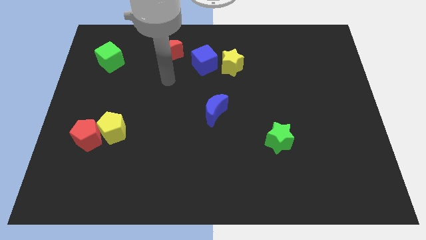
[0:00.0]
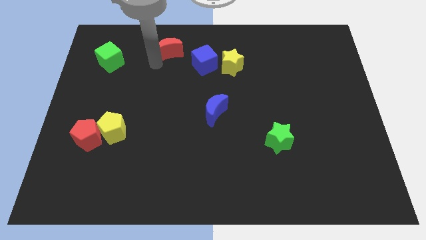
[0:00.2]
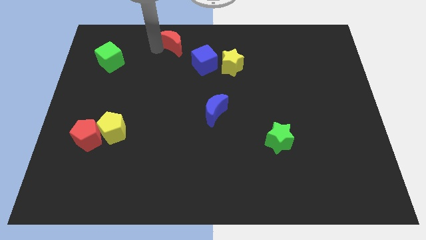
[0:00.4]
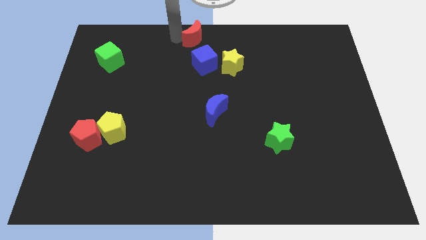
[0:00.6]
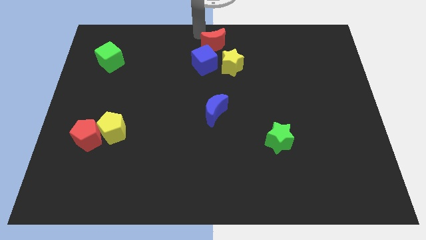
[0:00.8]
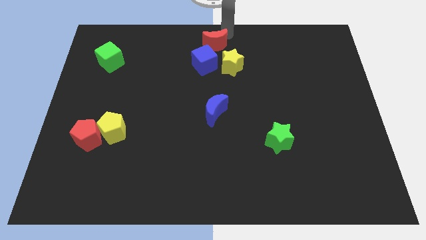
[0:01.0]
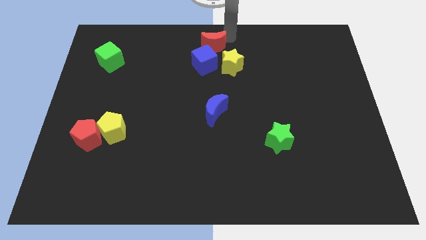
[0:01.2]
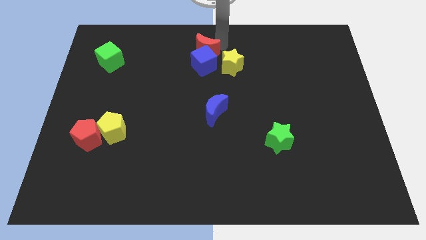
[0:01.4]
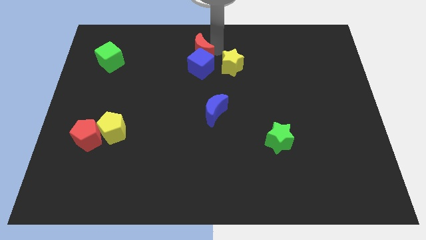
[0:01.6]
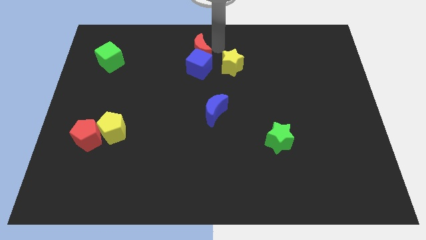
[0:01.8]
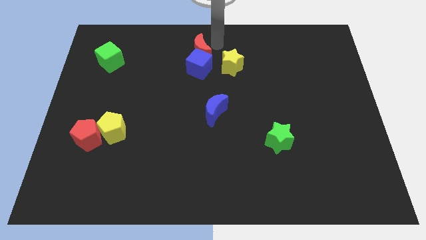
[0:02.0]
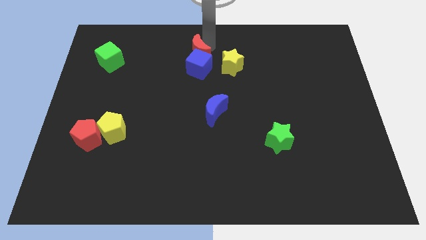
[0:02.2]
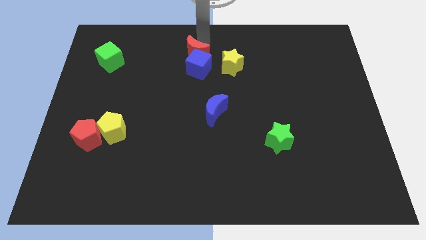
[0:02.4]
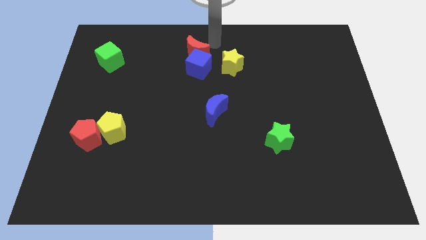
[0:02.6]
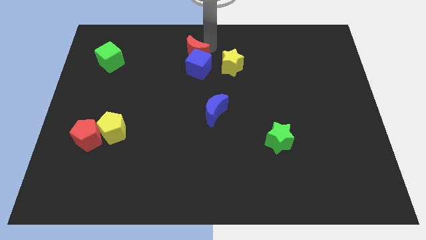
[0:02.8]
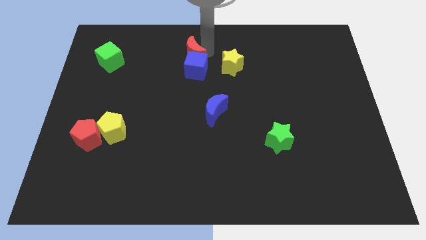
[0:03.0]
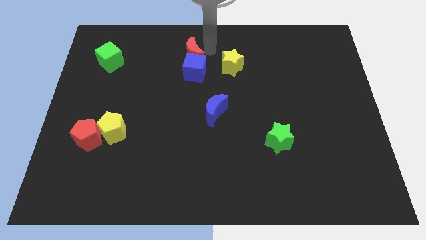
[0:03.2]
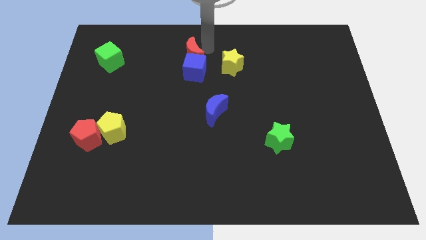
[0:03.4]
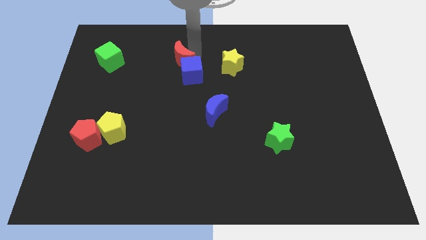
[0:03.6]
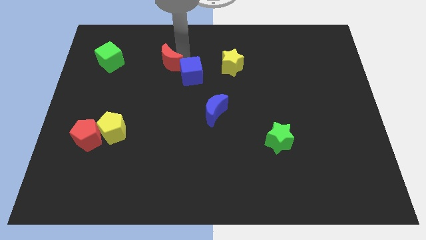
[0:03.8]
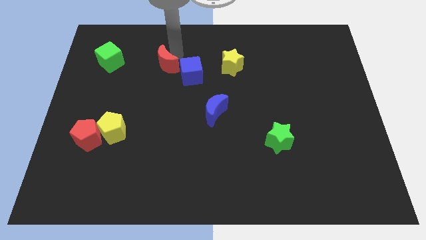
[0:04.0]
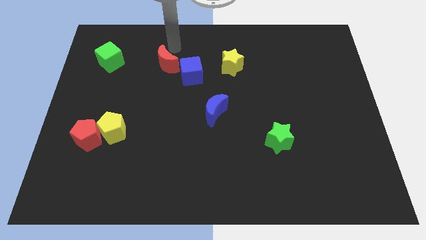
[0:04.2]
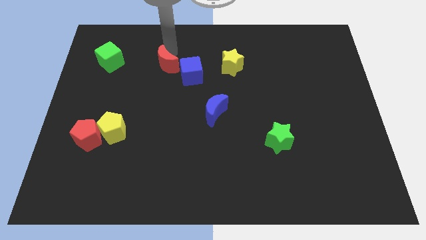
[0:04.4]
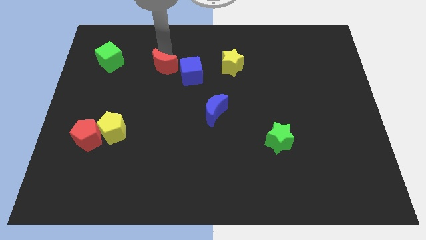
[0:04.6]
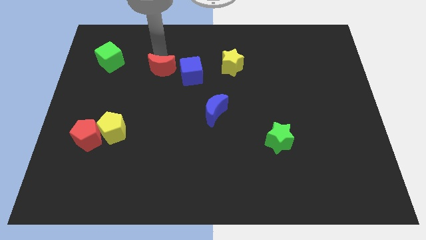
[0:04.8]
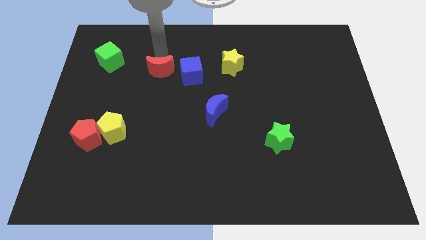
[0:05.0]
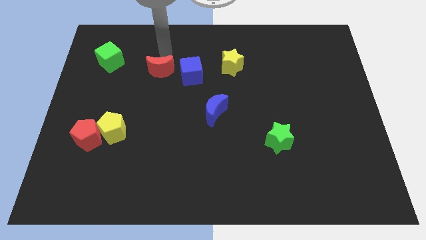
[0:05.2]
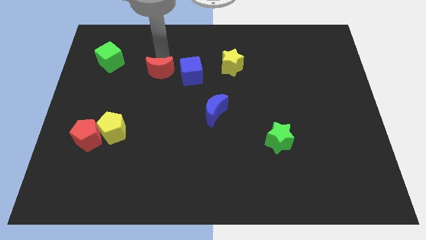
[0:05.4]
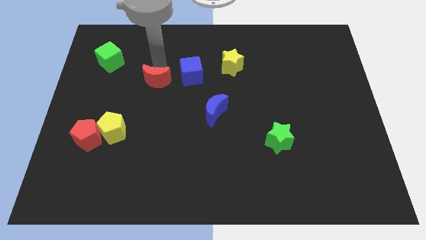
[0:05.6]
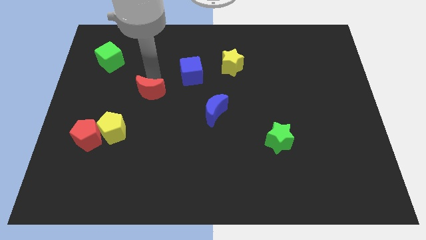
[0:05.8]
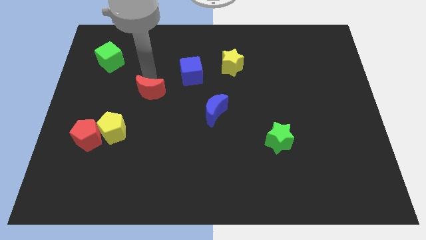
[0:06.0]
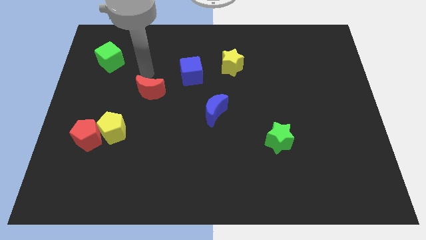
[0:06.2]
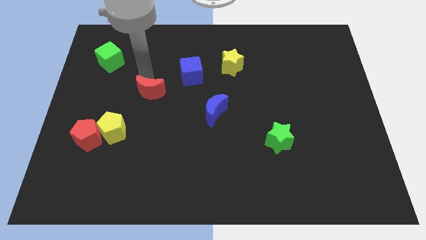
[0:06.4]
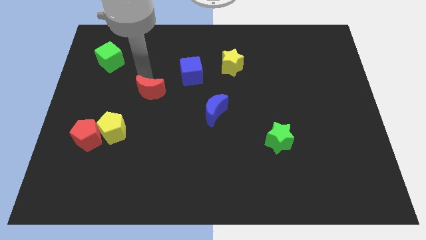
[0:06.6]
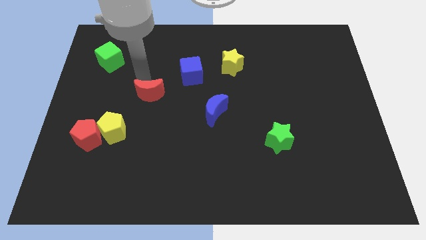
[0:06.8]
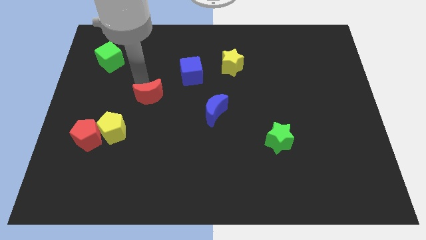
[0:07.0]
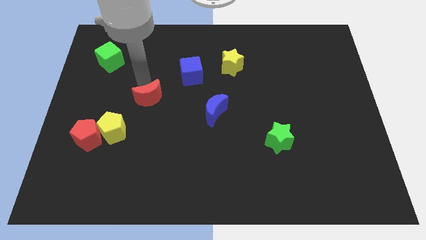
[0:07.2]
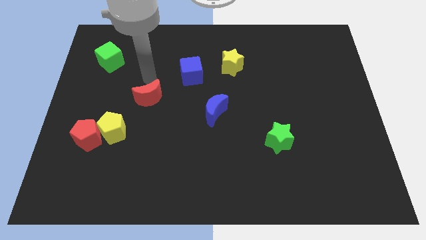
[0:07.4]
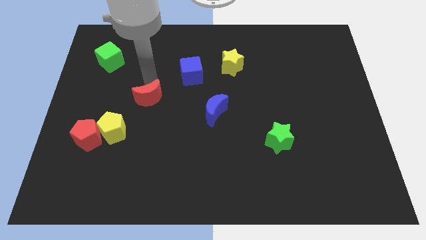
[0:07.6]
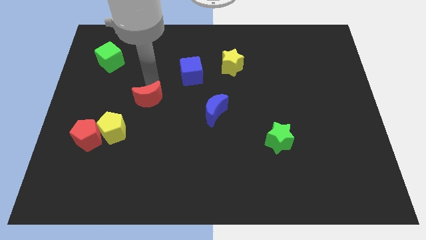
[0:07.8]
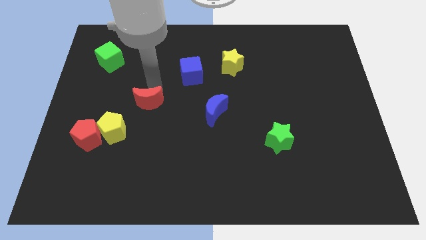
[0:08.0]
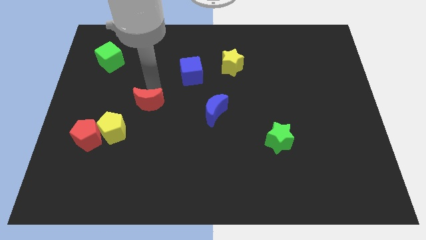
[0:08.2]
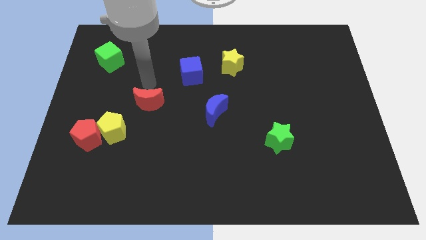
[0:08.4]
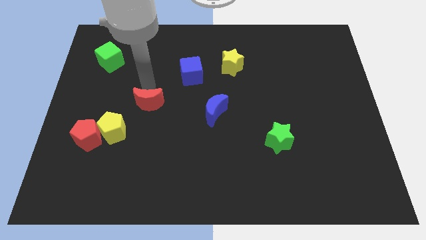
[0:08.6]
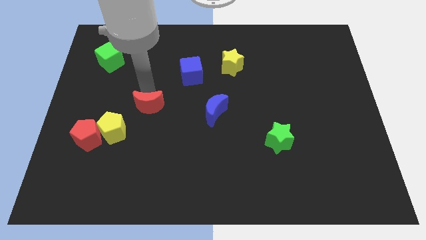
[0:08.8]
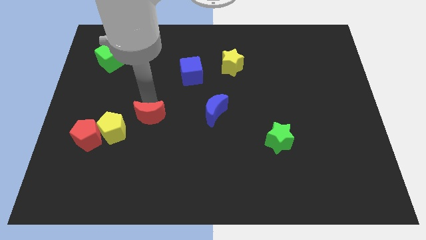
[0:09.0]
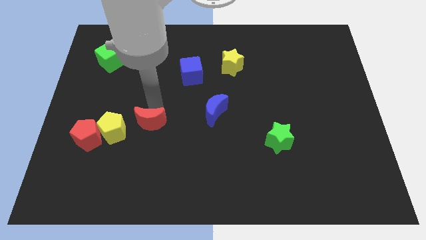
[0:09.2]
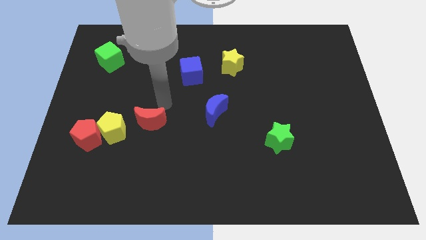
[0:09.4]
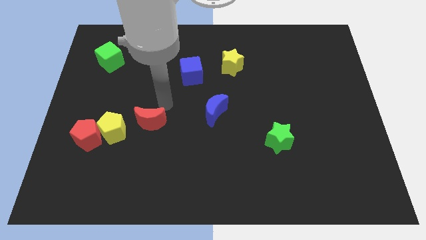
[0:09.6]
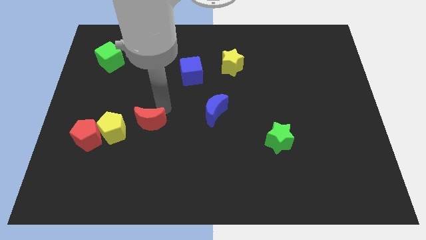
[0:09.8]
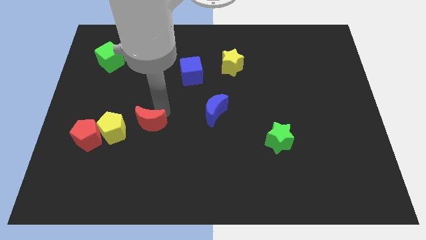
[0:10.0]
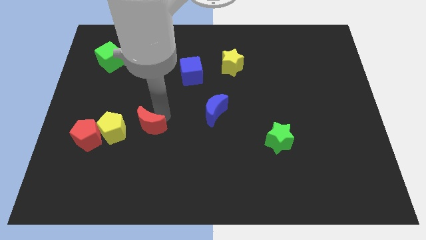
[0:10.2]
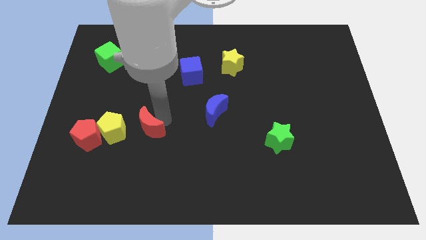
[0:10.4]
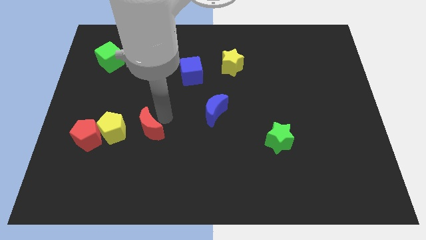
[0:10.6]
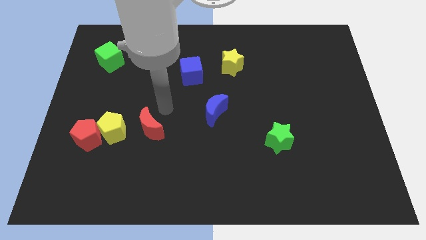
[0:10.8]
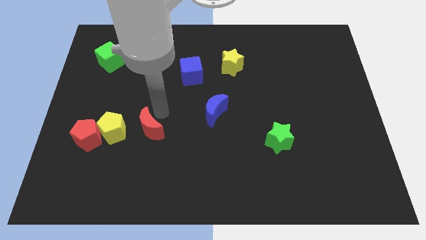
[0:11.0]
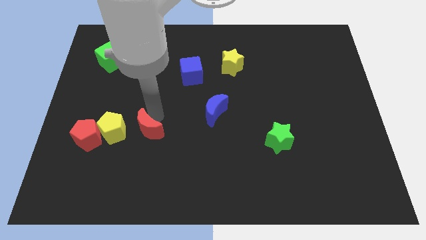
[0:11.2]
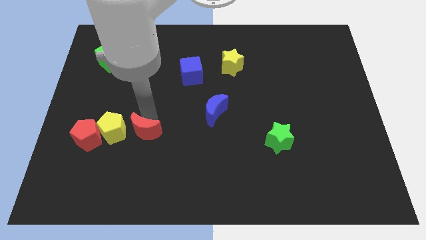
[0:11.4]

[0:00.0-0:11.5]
put the red moon to the bottom right side of the yellow pentagon

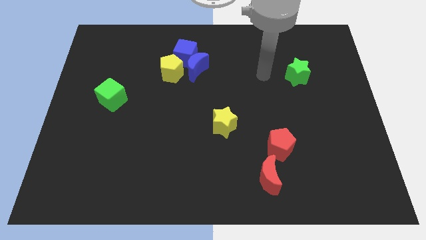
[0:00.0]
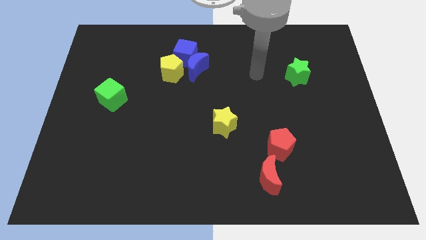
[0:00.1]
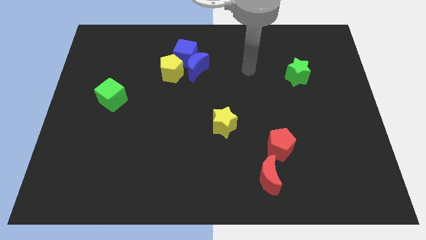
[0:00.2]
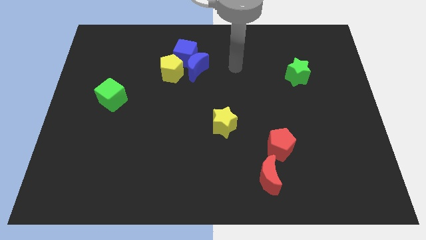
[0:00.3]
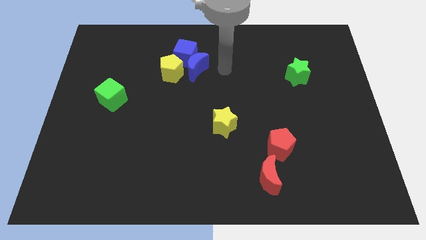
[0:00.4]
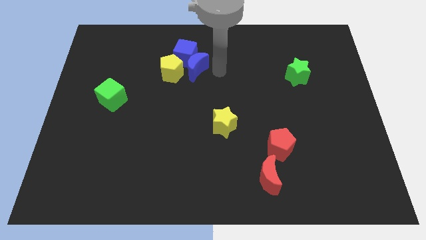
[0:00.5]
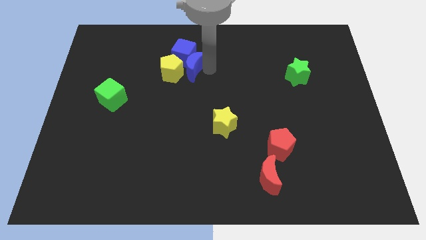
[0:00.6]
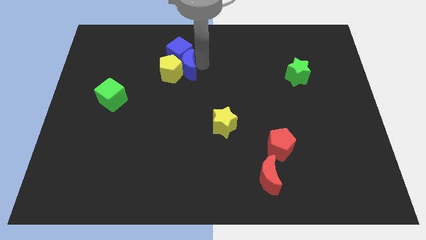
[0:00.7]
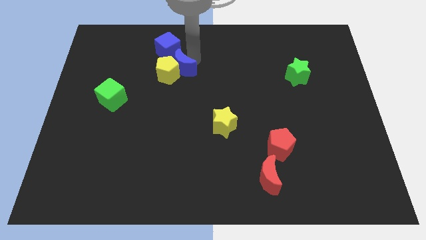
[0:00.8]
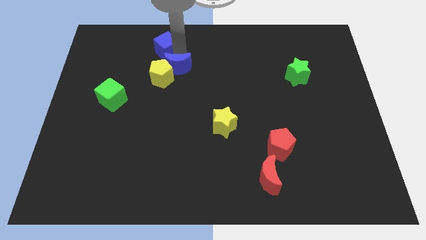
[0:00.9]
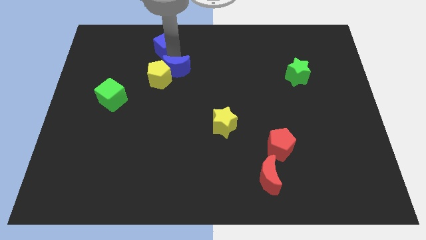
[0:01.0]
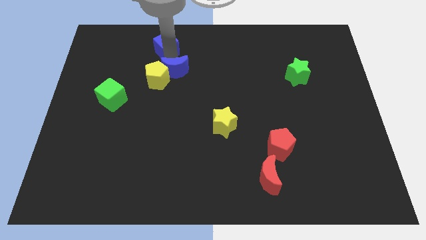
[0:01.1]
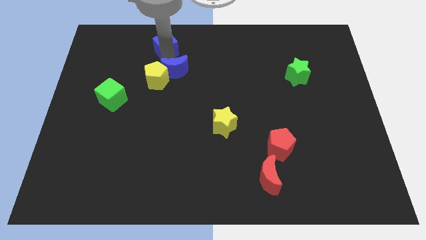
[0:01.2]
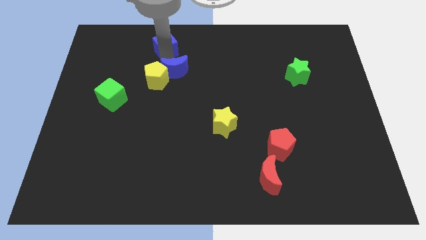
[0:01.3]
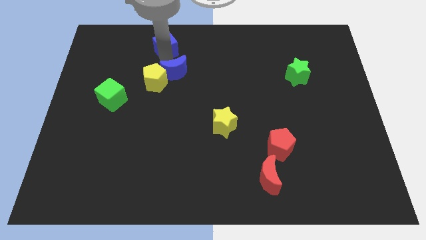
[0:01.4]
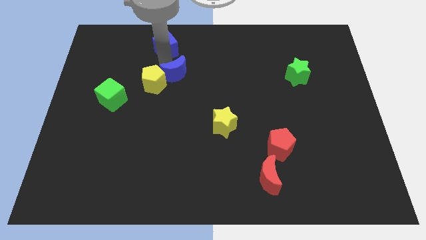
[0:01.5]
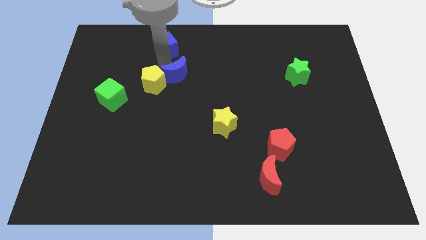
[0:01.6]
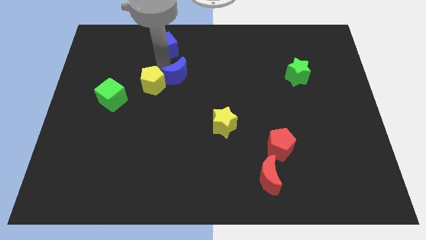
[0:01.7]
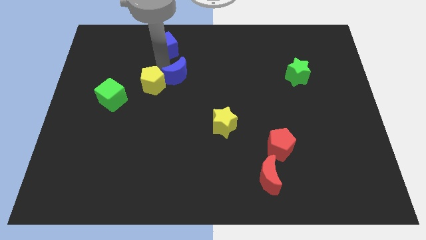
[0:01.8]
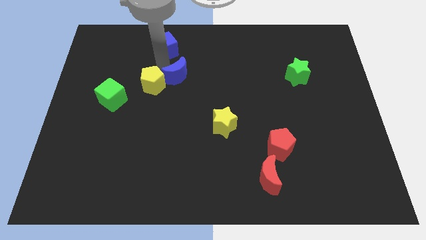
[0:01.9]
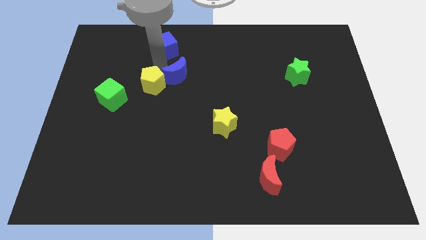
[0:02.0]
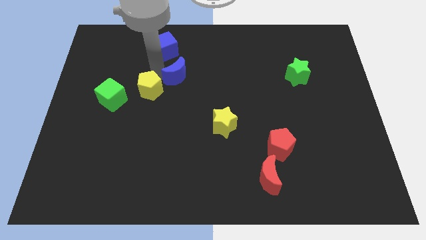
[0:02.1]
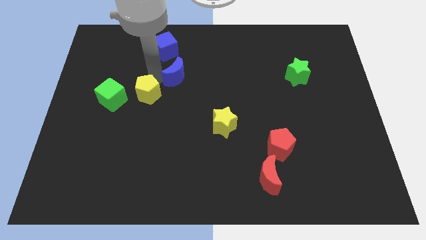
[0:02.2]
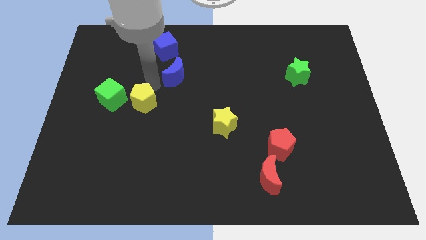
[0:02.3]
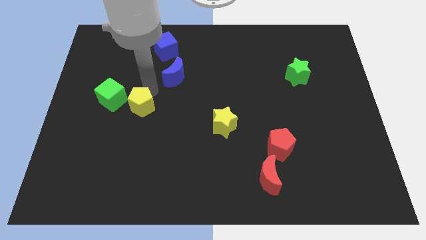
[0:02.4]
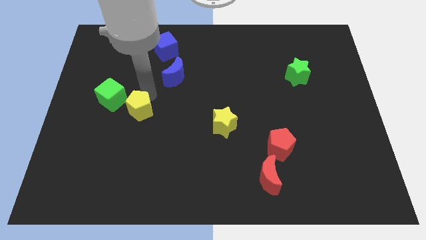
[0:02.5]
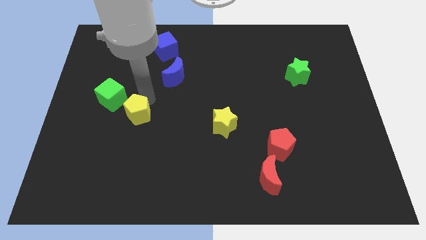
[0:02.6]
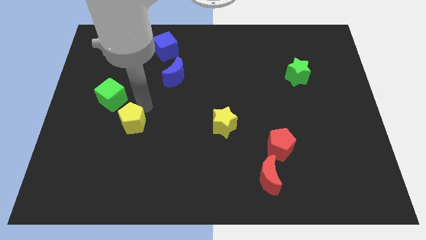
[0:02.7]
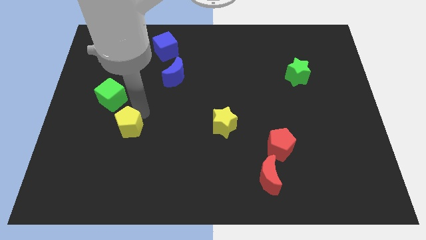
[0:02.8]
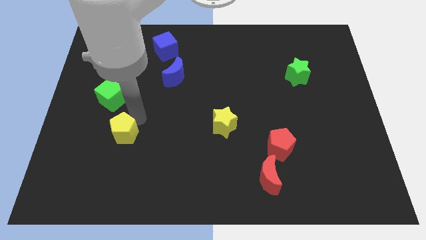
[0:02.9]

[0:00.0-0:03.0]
push the yellow pentagon to the bottom side of the green cube
